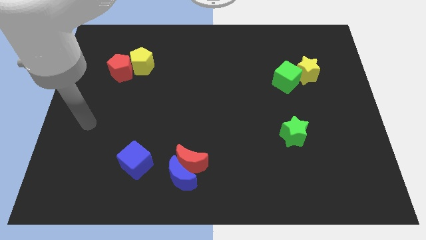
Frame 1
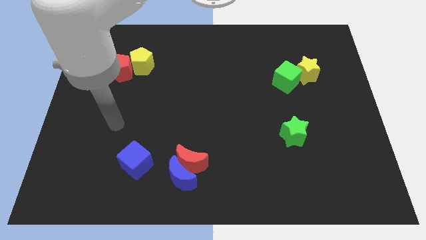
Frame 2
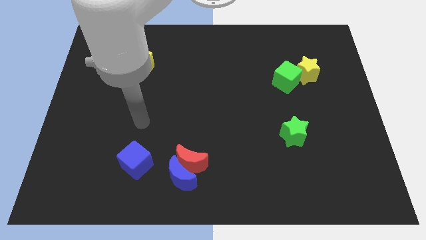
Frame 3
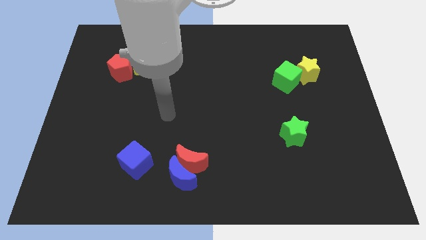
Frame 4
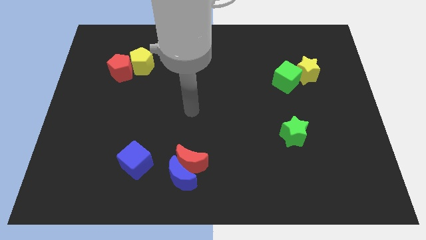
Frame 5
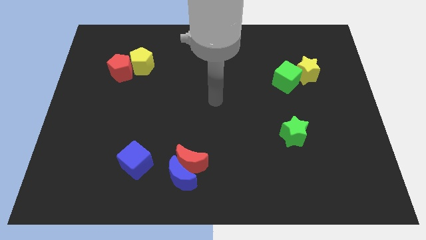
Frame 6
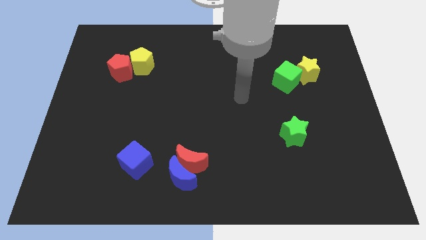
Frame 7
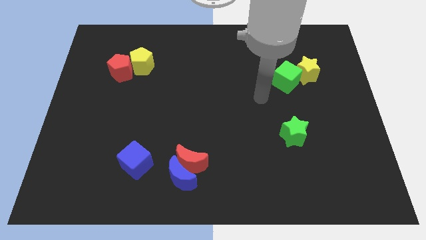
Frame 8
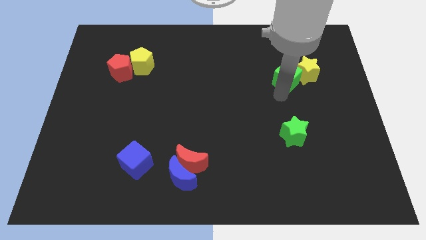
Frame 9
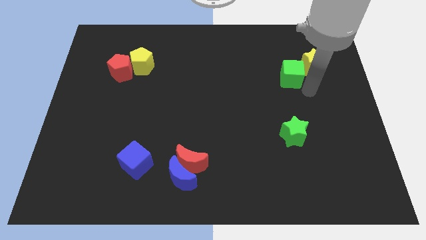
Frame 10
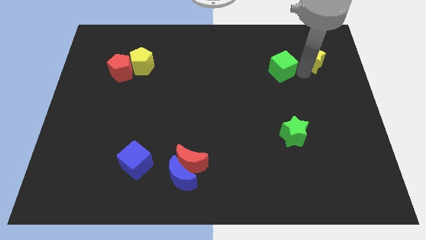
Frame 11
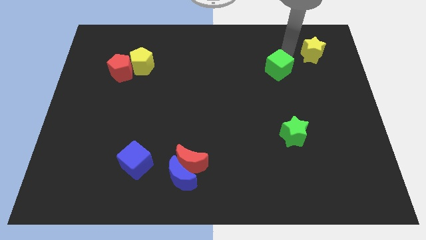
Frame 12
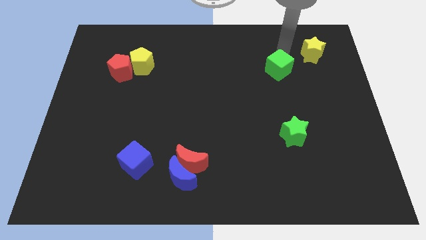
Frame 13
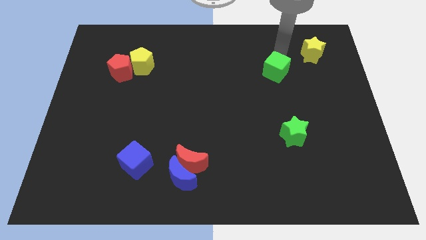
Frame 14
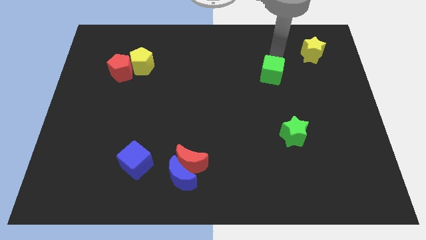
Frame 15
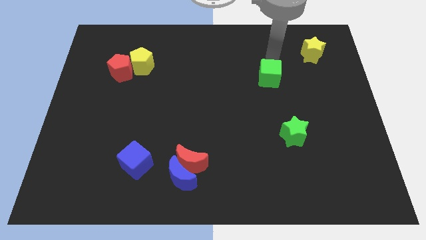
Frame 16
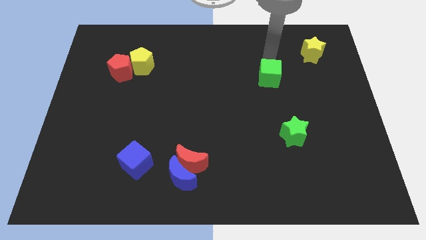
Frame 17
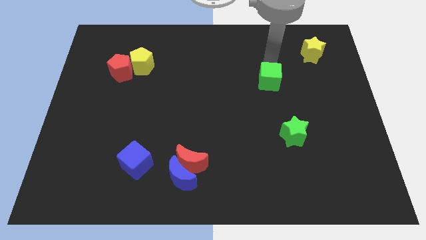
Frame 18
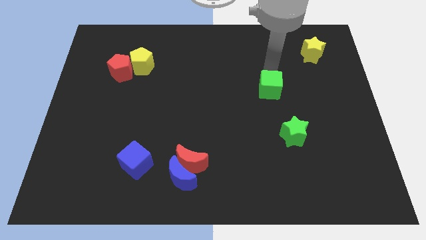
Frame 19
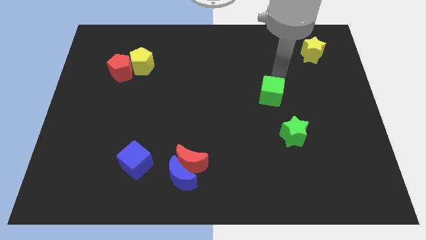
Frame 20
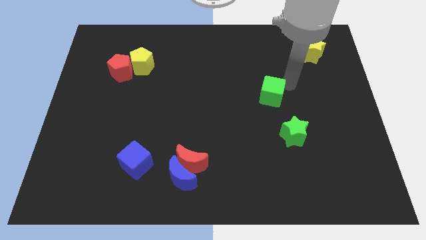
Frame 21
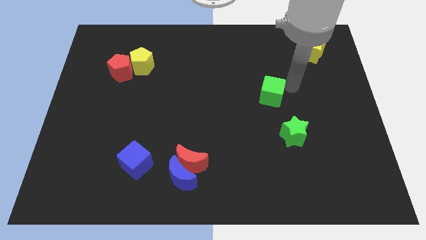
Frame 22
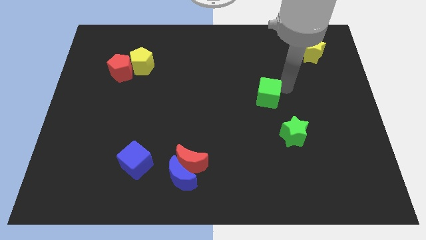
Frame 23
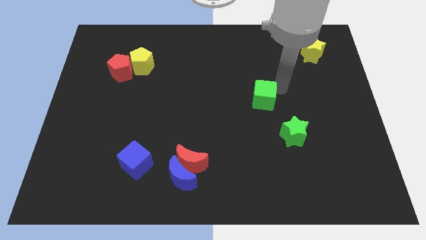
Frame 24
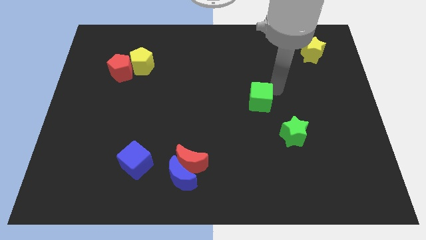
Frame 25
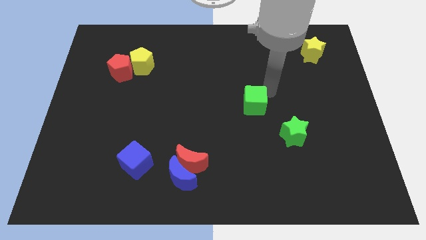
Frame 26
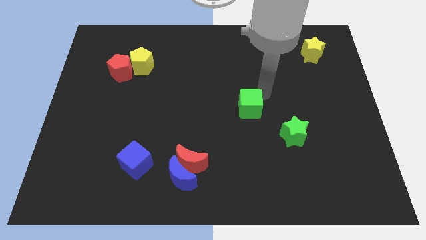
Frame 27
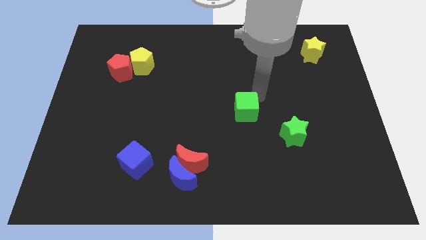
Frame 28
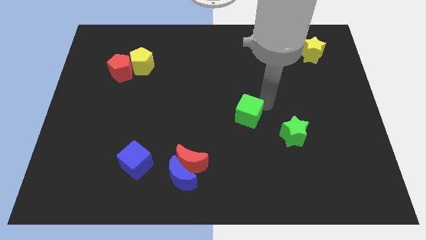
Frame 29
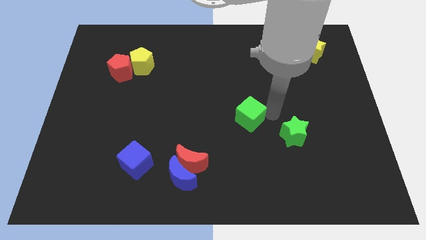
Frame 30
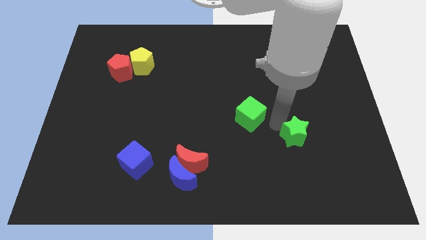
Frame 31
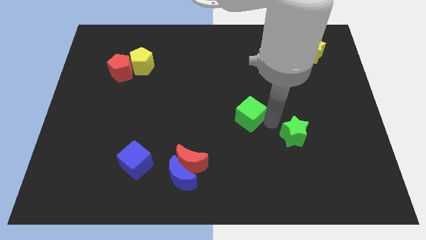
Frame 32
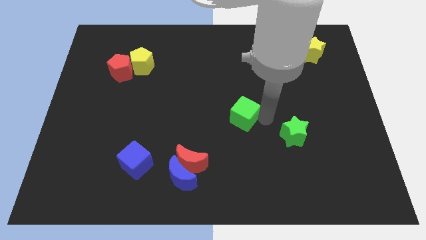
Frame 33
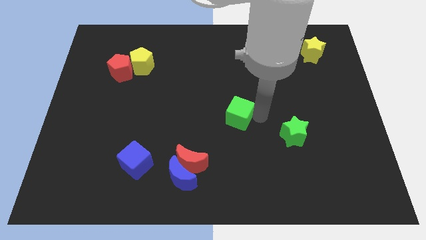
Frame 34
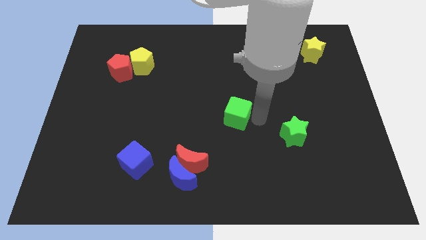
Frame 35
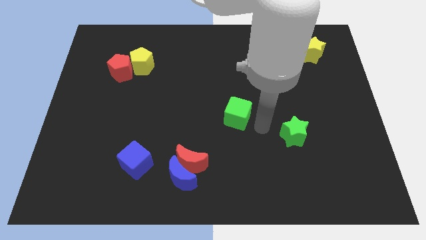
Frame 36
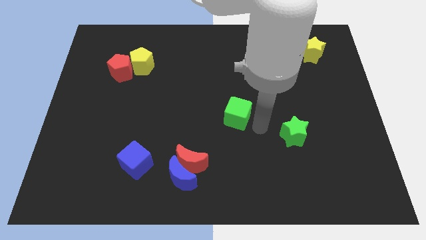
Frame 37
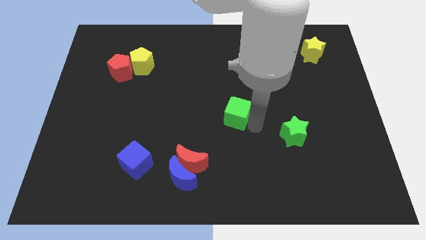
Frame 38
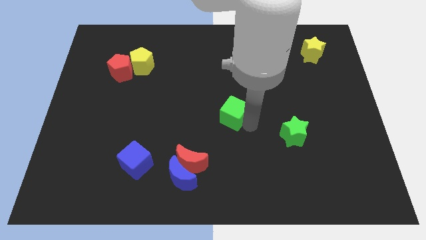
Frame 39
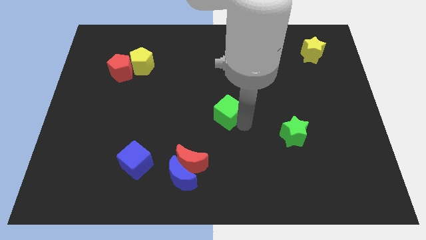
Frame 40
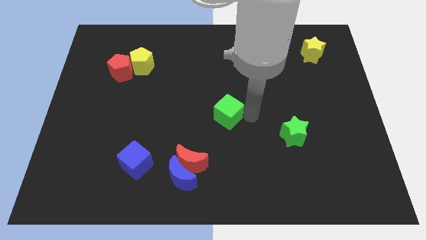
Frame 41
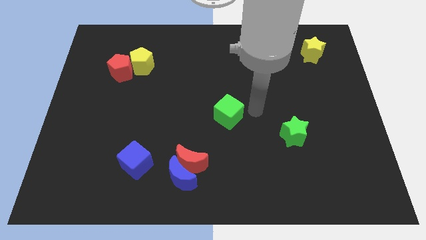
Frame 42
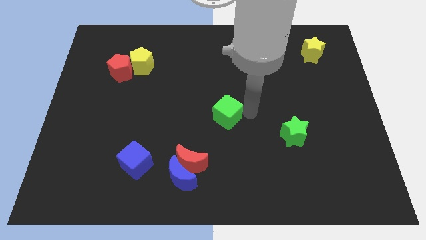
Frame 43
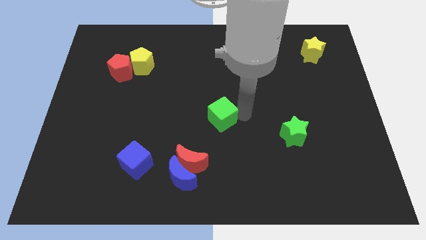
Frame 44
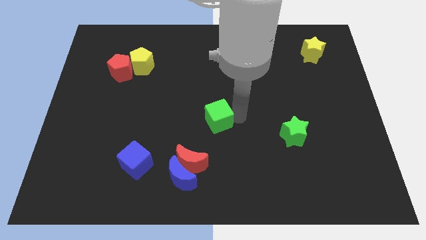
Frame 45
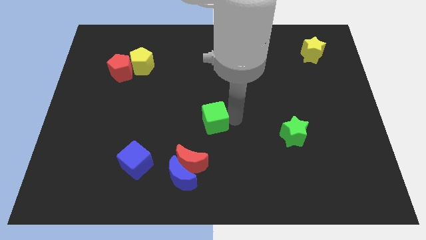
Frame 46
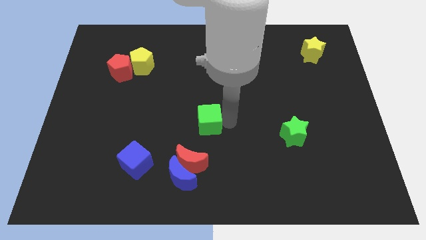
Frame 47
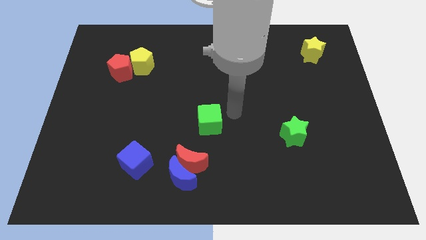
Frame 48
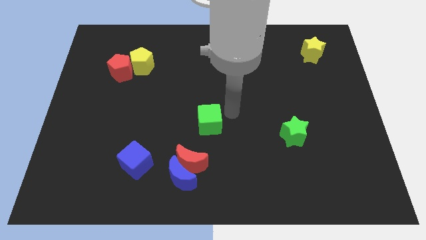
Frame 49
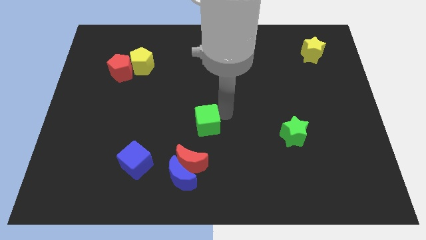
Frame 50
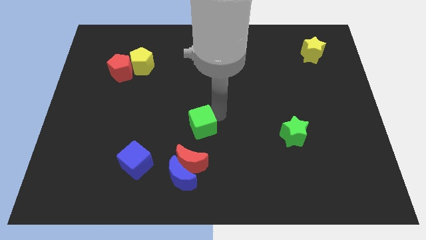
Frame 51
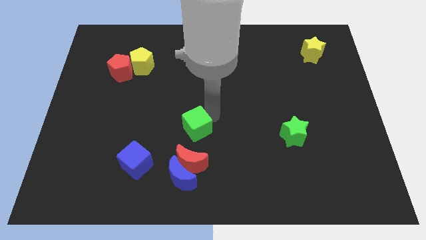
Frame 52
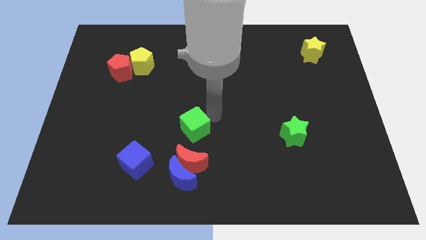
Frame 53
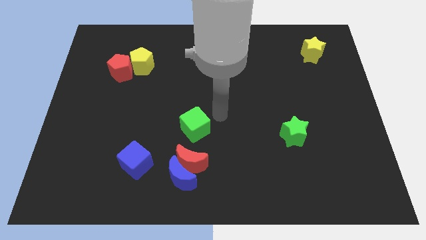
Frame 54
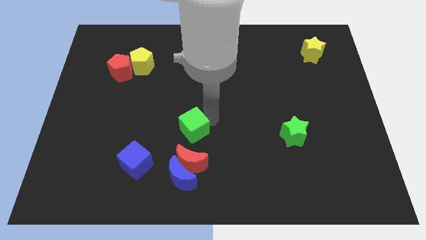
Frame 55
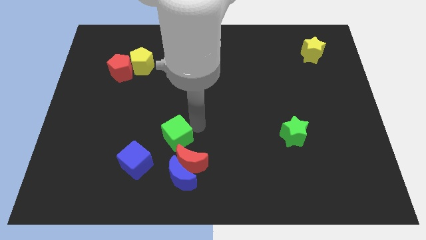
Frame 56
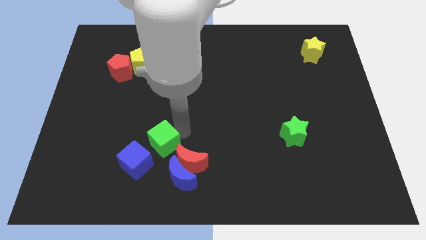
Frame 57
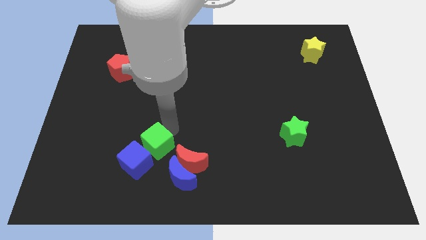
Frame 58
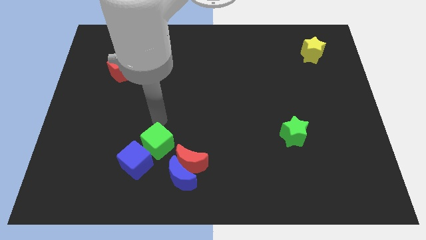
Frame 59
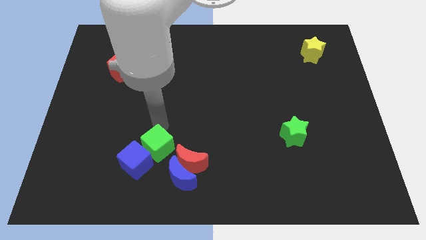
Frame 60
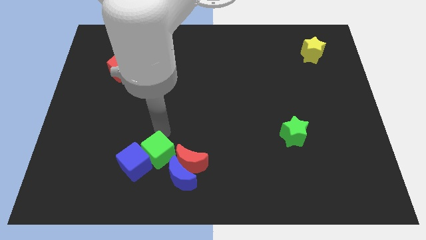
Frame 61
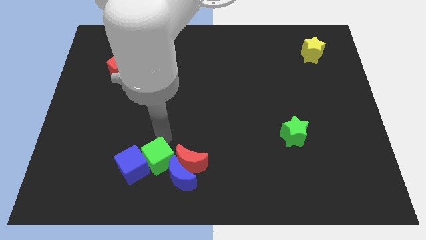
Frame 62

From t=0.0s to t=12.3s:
push the green cube just left of the blue moon
